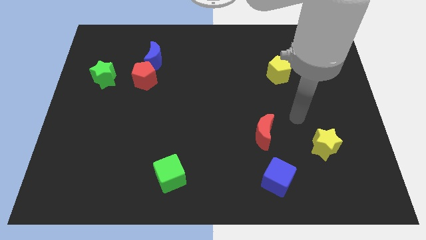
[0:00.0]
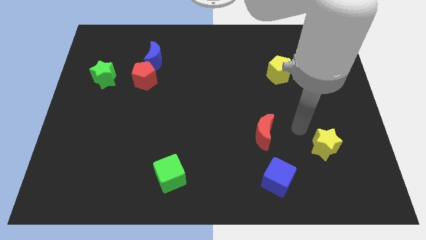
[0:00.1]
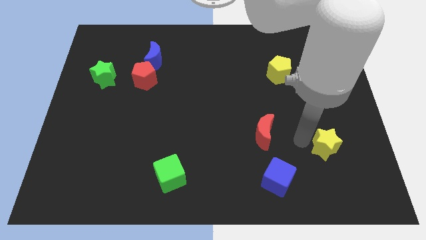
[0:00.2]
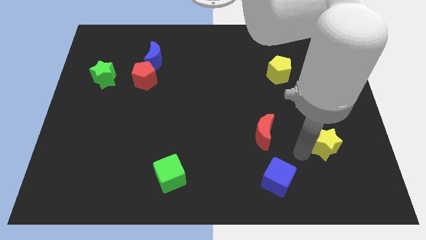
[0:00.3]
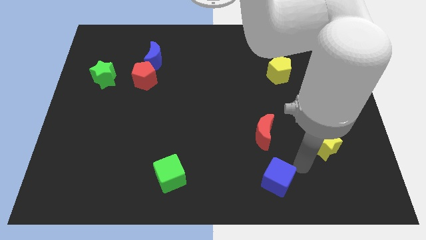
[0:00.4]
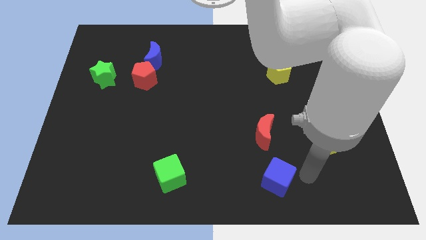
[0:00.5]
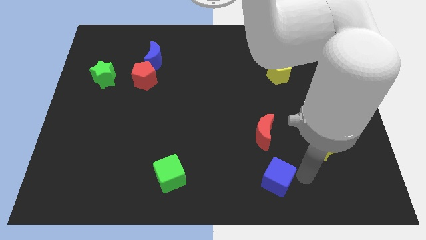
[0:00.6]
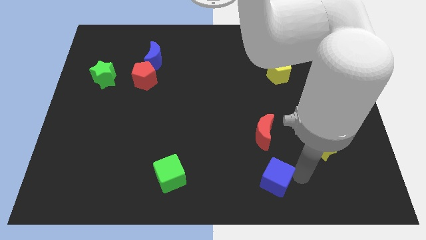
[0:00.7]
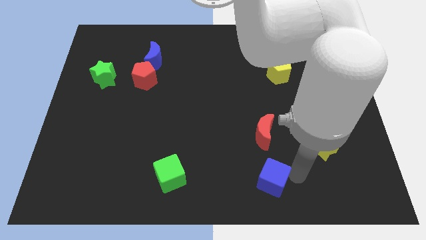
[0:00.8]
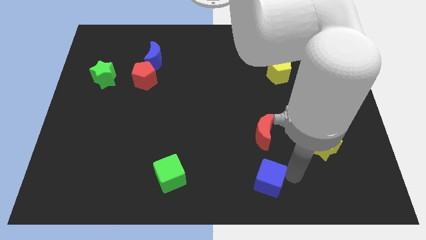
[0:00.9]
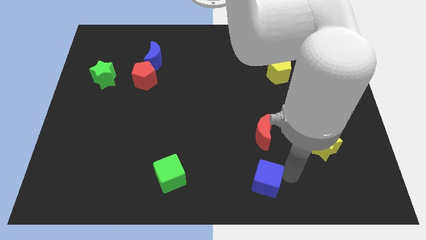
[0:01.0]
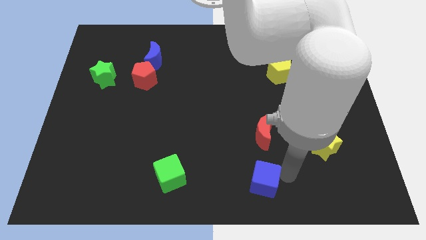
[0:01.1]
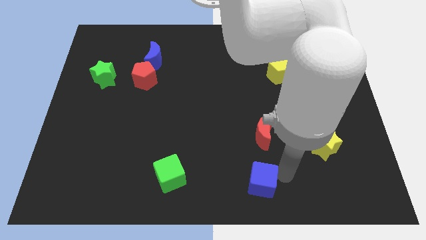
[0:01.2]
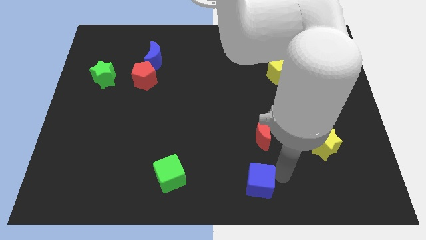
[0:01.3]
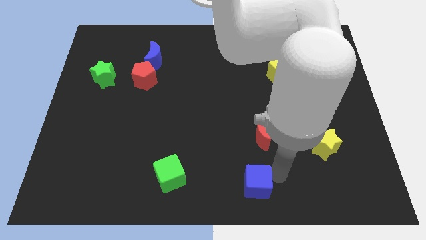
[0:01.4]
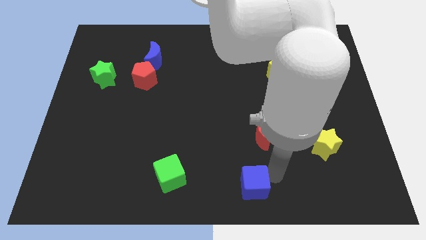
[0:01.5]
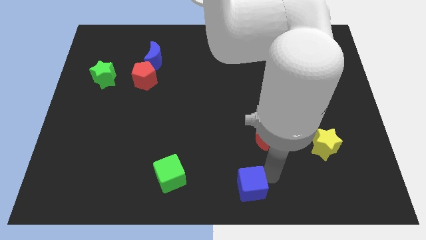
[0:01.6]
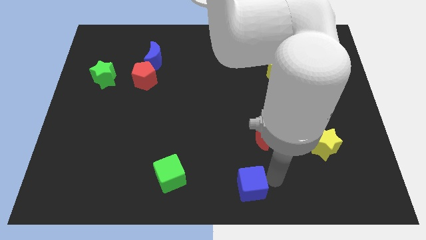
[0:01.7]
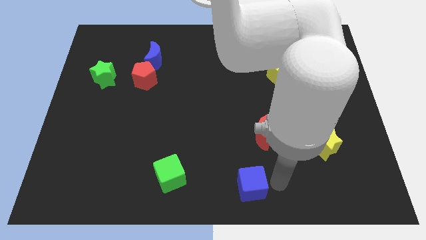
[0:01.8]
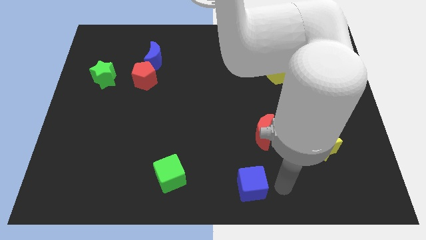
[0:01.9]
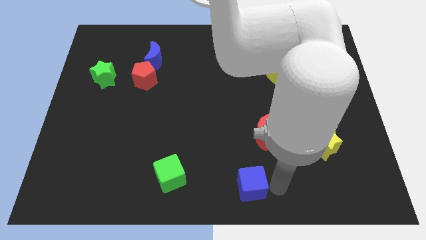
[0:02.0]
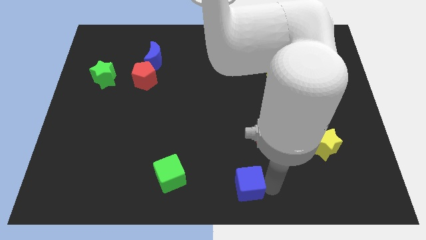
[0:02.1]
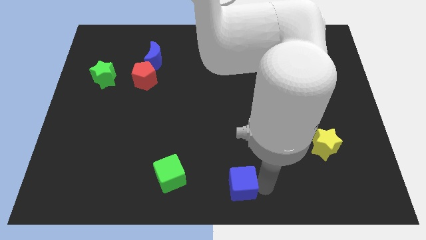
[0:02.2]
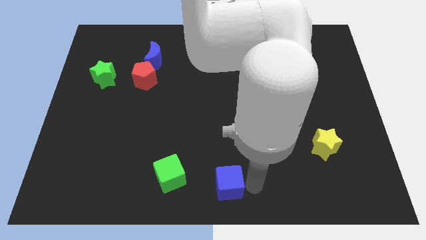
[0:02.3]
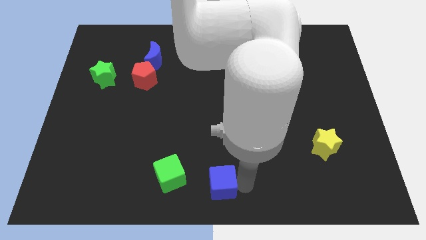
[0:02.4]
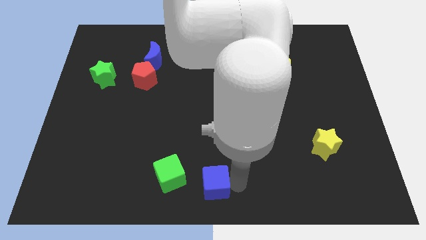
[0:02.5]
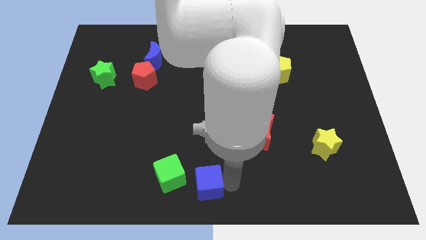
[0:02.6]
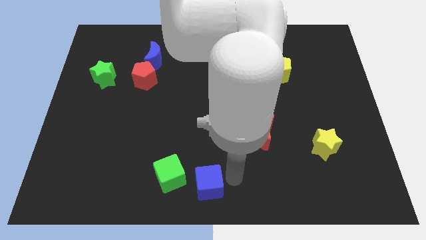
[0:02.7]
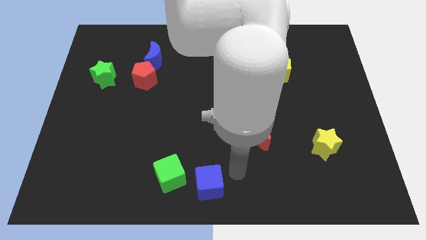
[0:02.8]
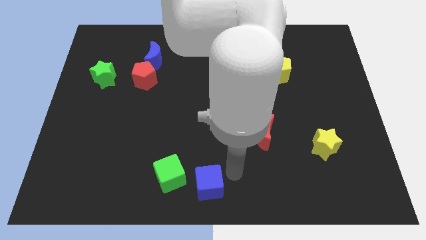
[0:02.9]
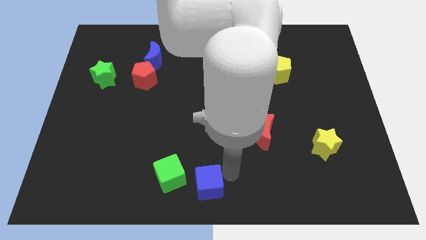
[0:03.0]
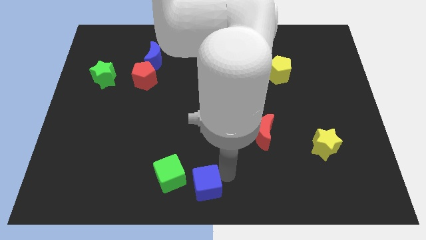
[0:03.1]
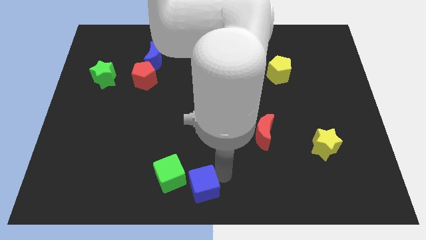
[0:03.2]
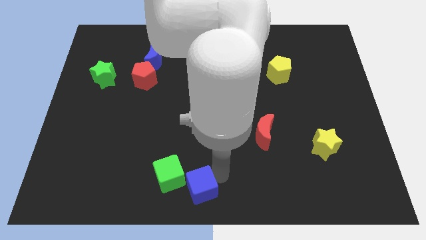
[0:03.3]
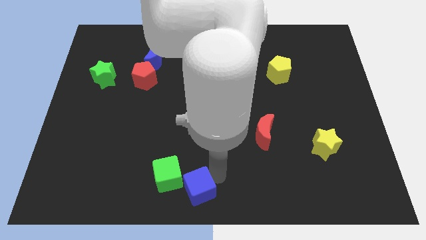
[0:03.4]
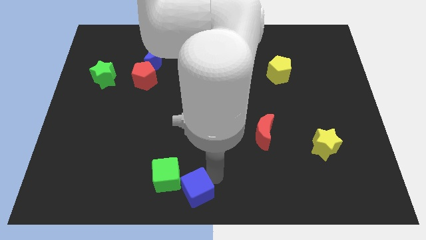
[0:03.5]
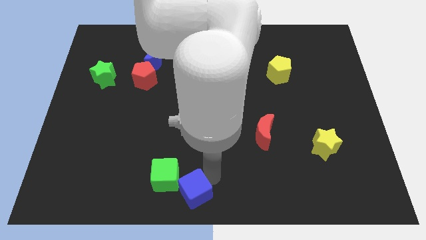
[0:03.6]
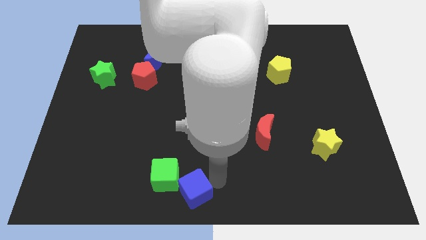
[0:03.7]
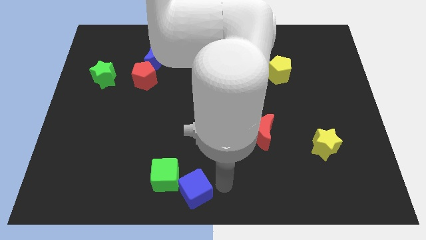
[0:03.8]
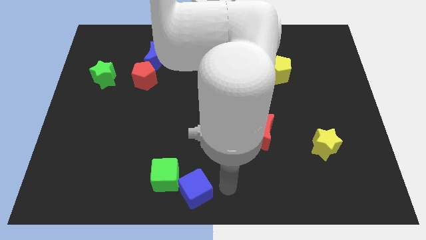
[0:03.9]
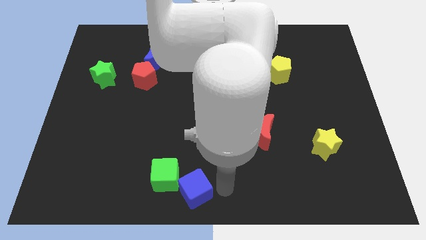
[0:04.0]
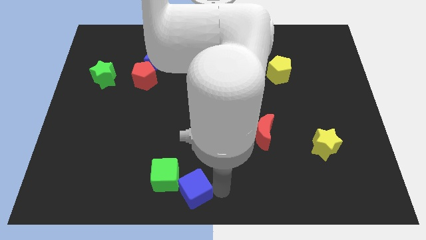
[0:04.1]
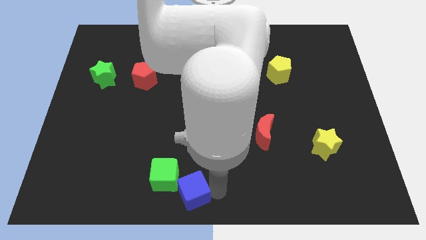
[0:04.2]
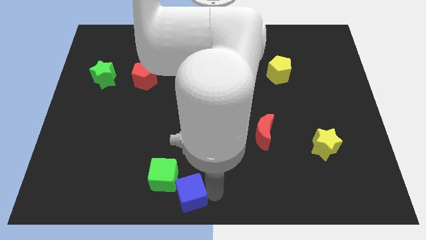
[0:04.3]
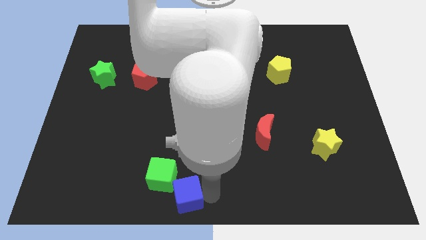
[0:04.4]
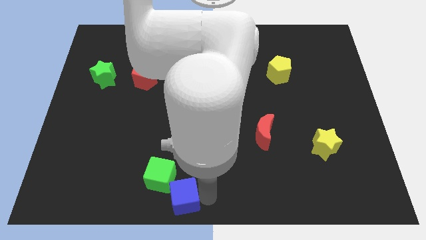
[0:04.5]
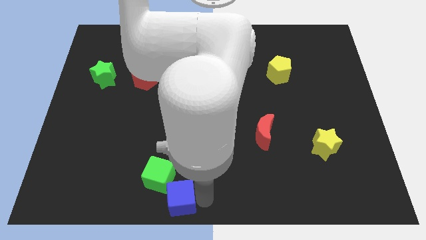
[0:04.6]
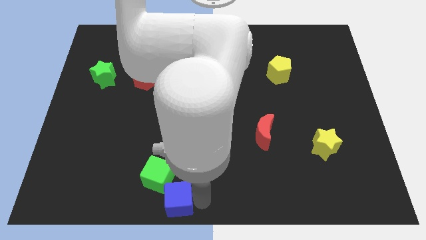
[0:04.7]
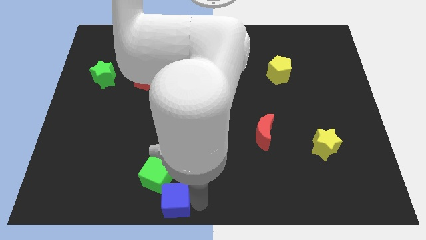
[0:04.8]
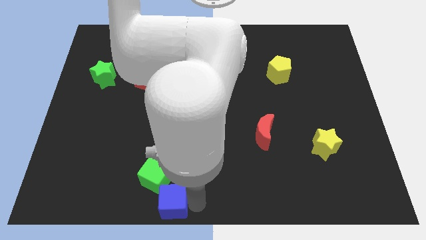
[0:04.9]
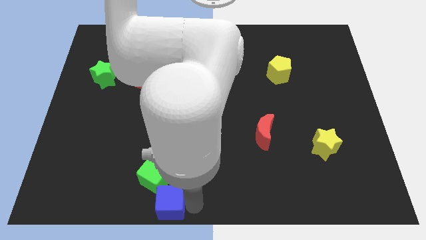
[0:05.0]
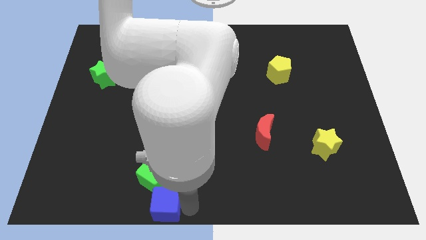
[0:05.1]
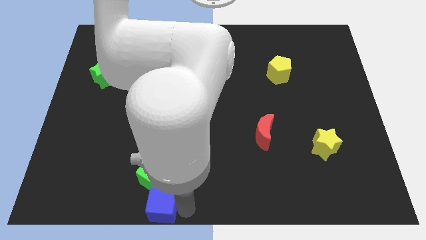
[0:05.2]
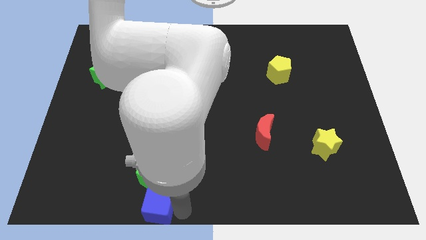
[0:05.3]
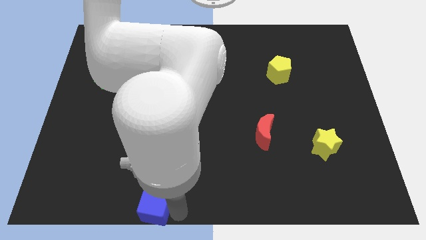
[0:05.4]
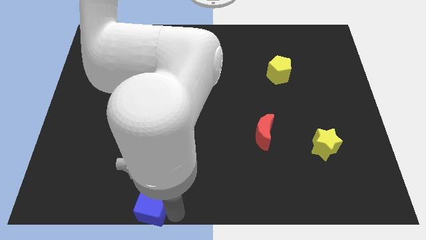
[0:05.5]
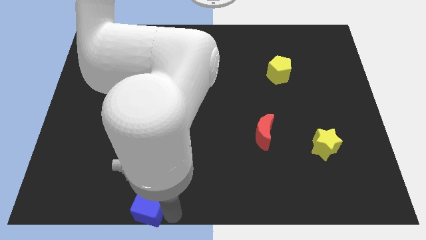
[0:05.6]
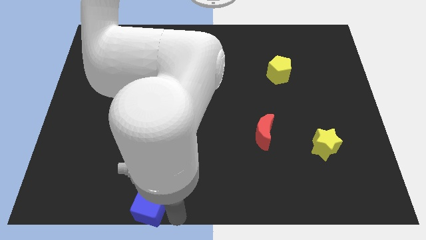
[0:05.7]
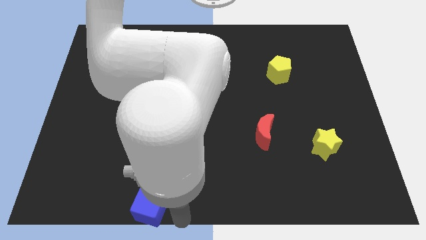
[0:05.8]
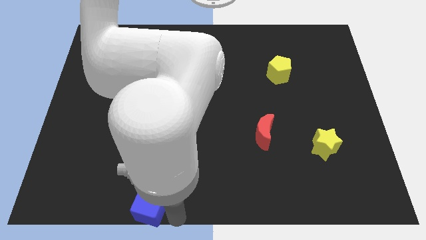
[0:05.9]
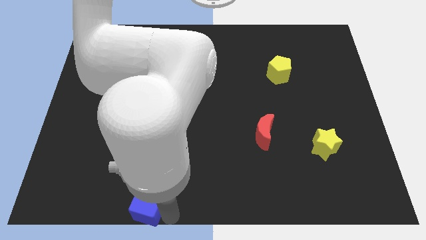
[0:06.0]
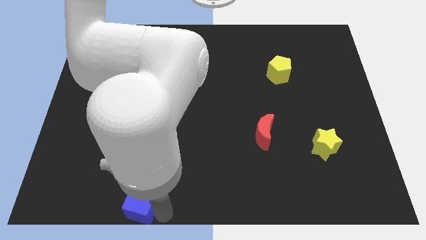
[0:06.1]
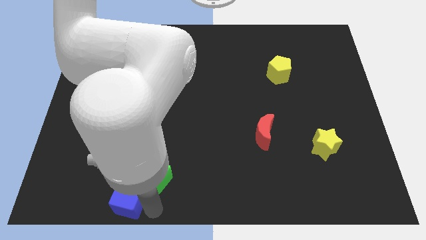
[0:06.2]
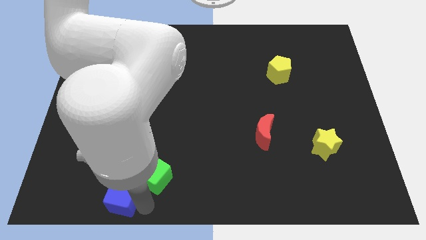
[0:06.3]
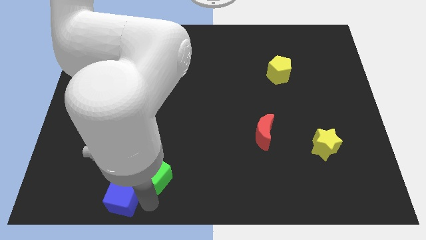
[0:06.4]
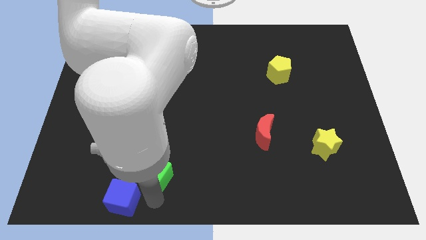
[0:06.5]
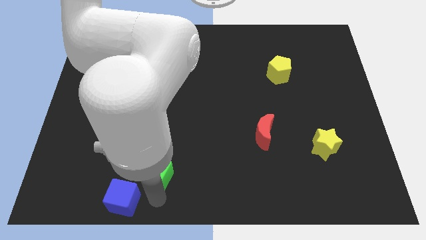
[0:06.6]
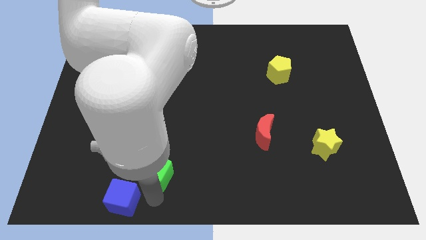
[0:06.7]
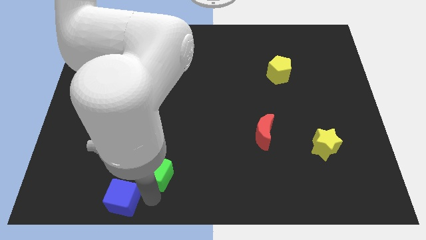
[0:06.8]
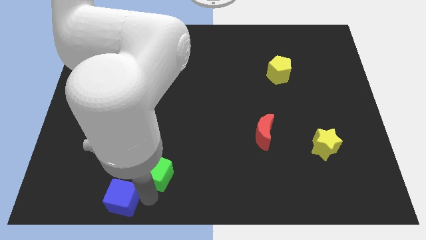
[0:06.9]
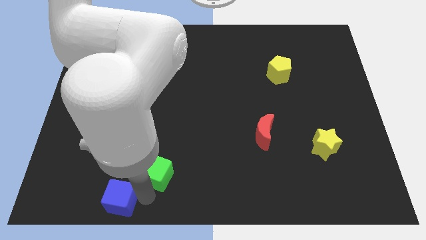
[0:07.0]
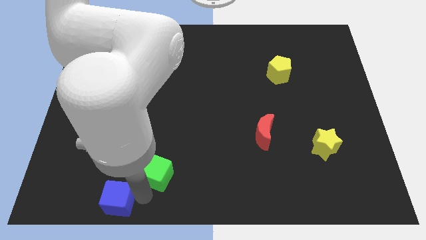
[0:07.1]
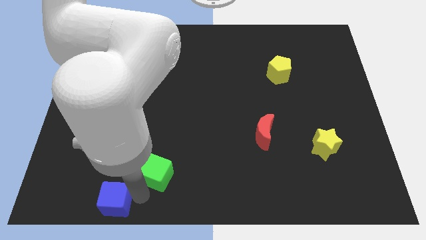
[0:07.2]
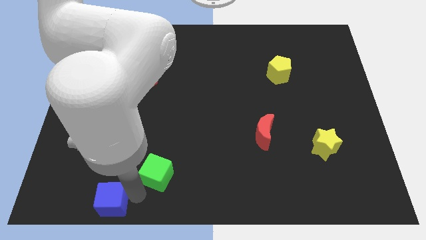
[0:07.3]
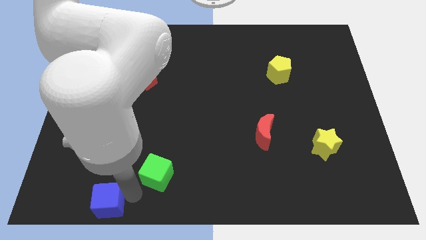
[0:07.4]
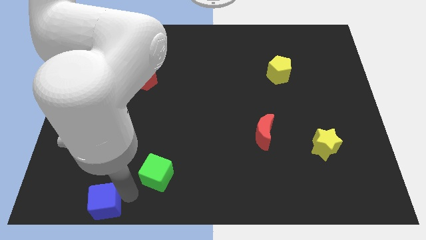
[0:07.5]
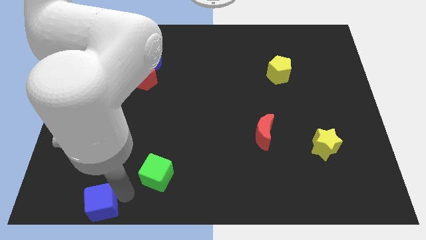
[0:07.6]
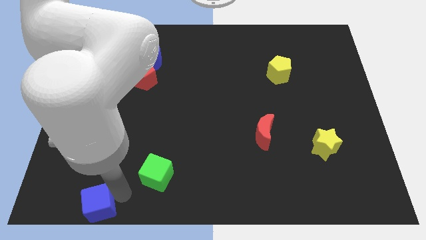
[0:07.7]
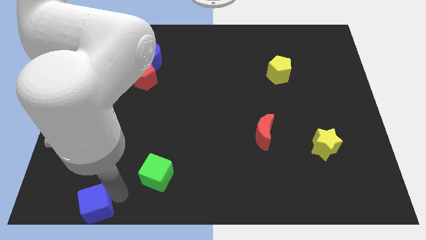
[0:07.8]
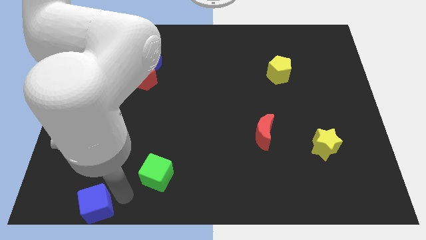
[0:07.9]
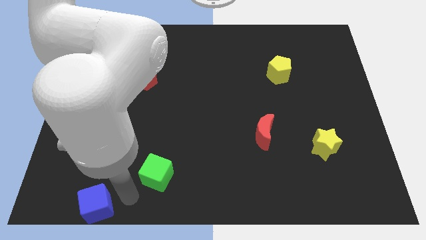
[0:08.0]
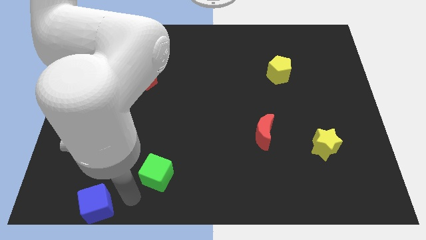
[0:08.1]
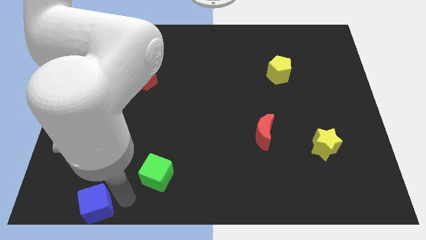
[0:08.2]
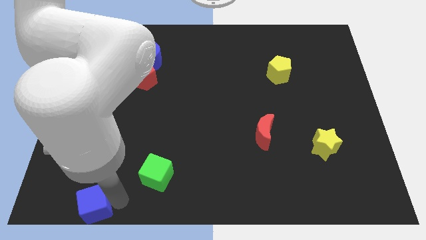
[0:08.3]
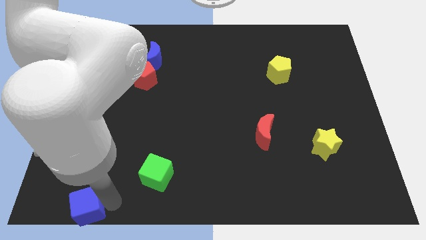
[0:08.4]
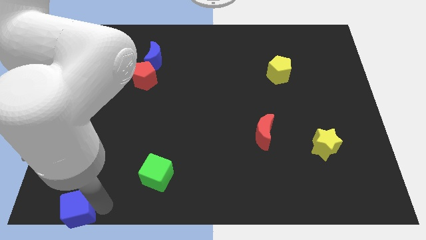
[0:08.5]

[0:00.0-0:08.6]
slide the blue cube to the lower left corner
